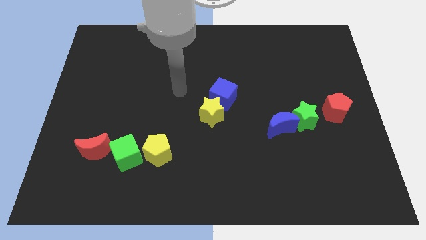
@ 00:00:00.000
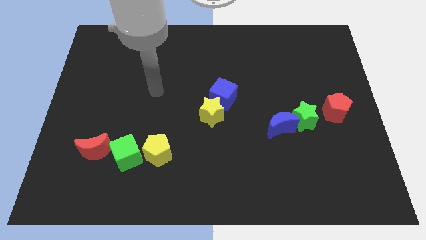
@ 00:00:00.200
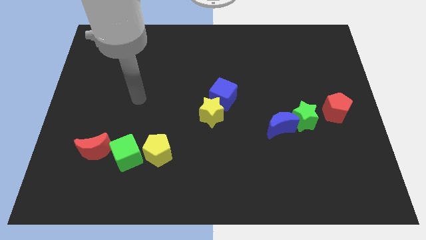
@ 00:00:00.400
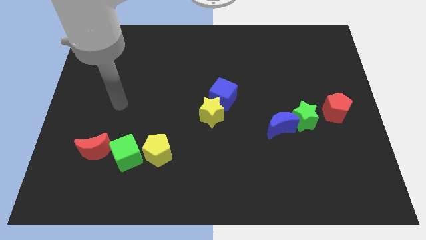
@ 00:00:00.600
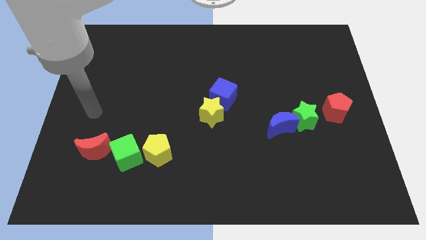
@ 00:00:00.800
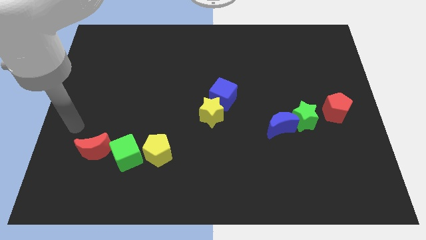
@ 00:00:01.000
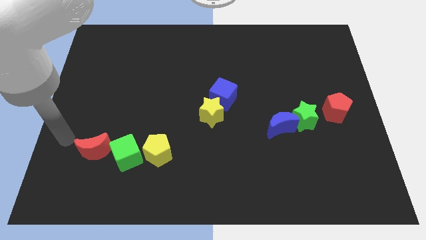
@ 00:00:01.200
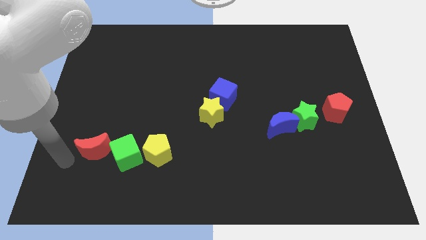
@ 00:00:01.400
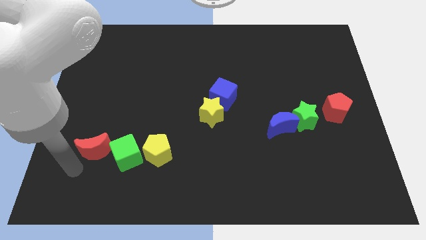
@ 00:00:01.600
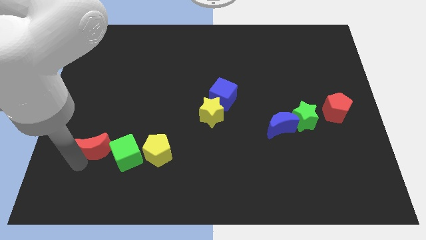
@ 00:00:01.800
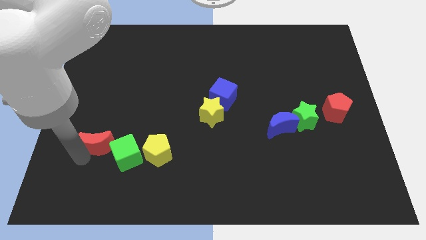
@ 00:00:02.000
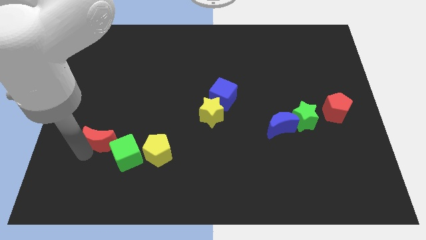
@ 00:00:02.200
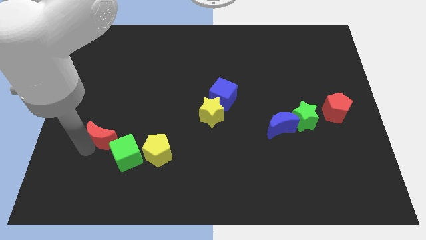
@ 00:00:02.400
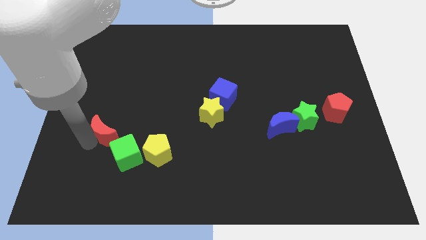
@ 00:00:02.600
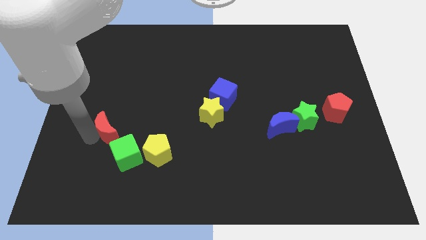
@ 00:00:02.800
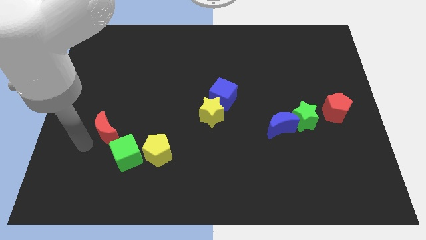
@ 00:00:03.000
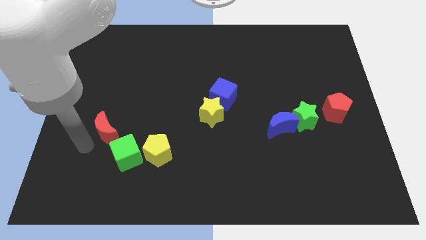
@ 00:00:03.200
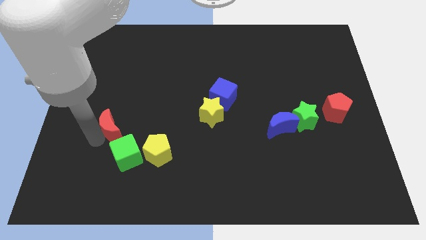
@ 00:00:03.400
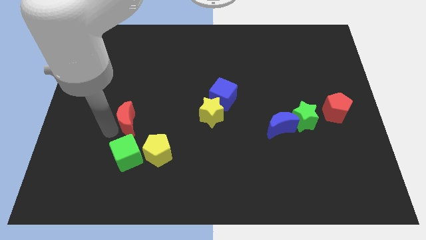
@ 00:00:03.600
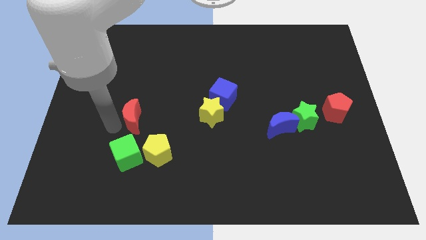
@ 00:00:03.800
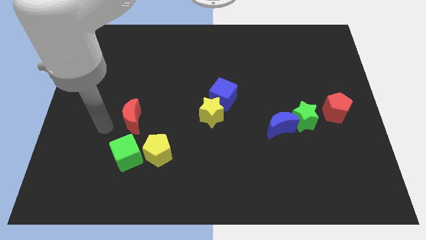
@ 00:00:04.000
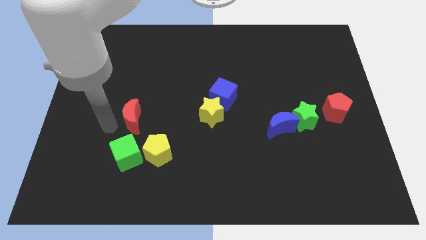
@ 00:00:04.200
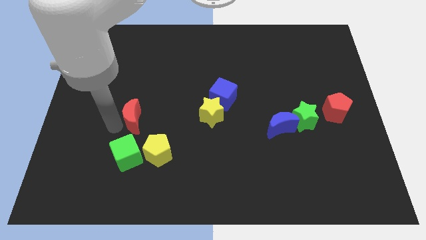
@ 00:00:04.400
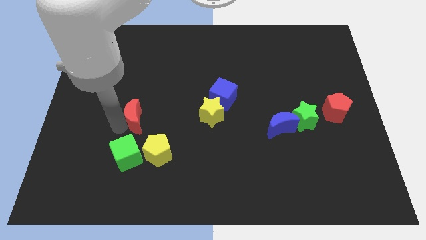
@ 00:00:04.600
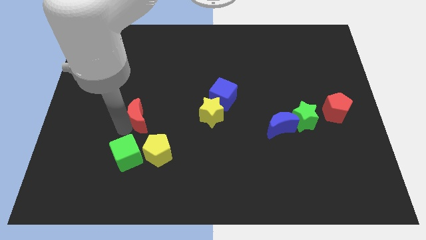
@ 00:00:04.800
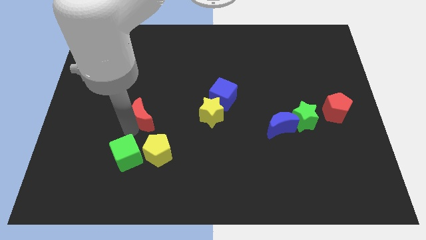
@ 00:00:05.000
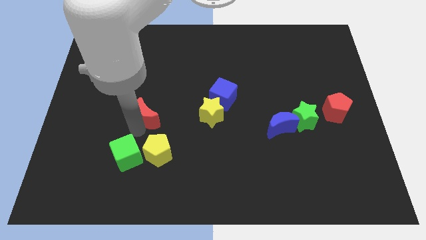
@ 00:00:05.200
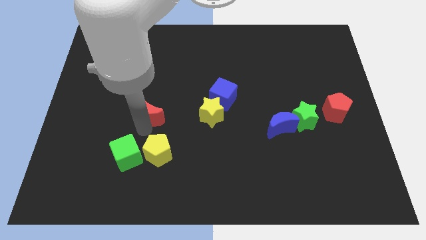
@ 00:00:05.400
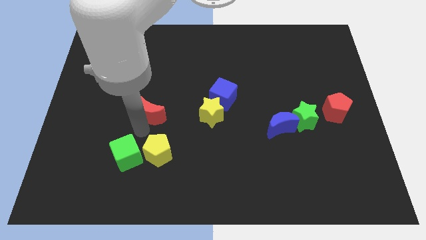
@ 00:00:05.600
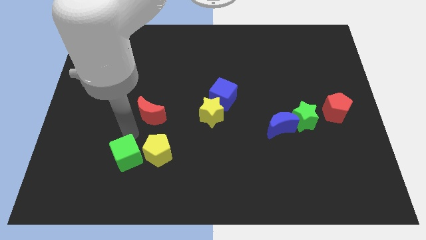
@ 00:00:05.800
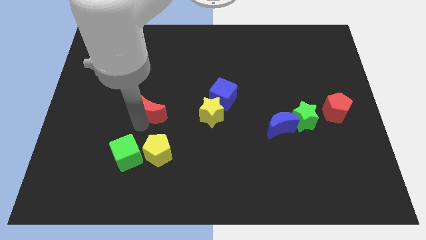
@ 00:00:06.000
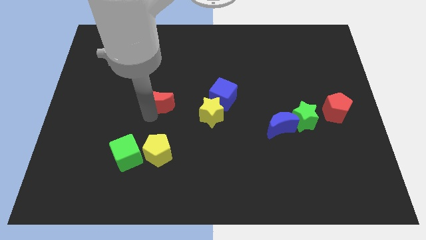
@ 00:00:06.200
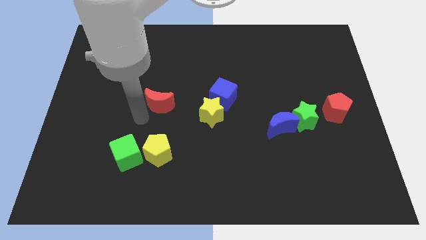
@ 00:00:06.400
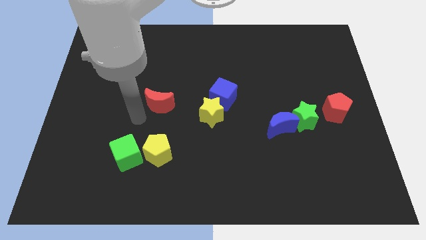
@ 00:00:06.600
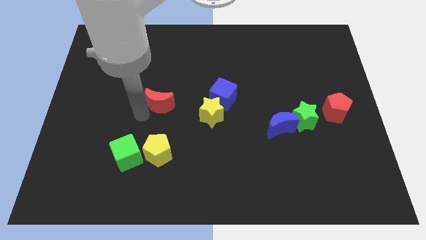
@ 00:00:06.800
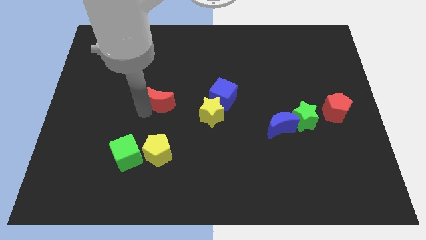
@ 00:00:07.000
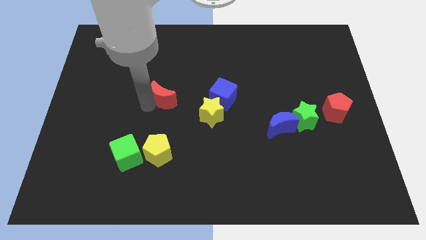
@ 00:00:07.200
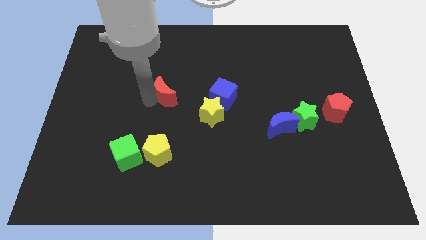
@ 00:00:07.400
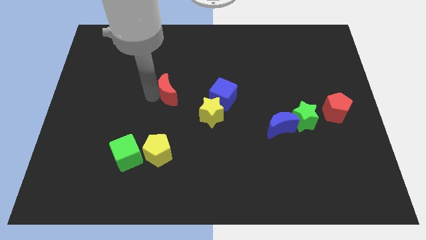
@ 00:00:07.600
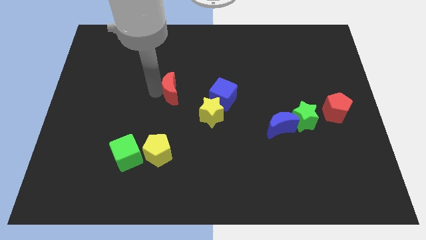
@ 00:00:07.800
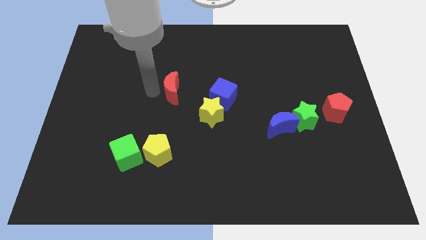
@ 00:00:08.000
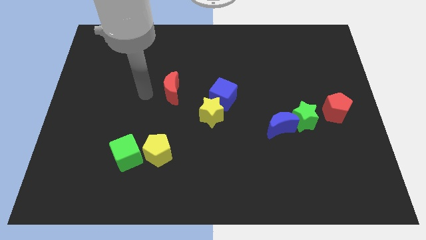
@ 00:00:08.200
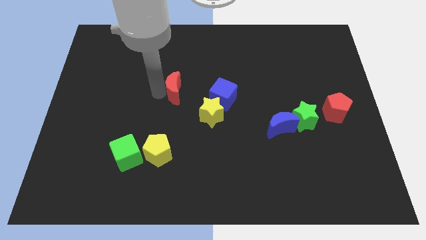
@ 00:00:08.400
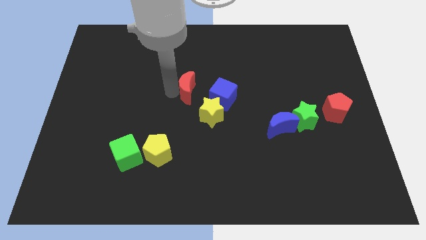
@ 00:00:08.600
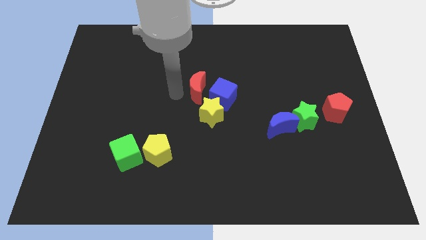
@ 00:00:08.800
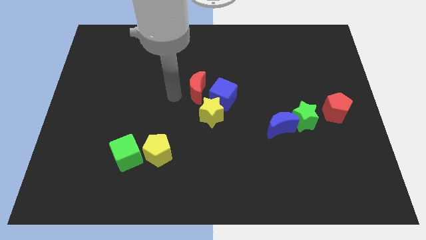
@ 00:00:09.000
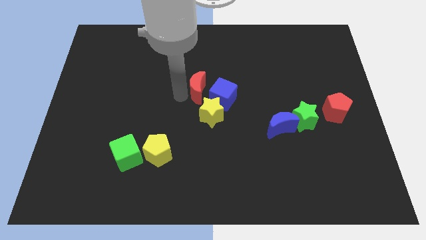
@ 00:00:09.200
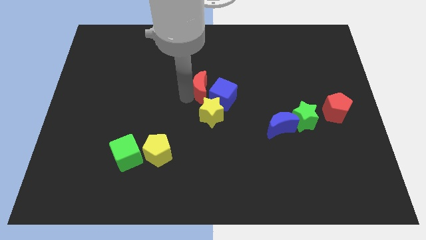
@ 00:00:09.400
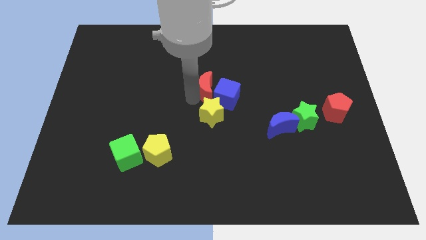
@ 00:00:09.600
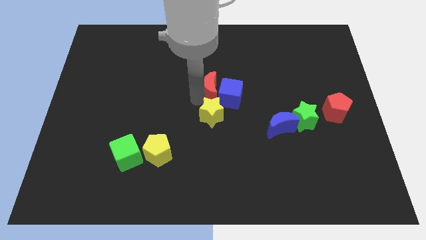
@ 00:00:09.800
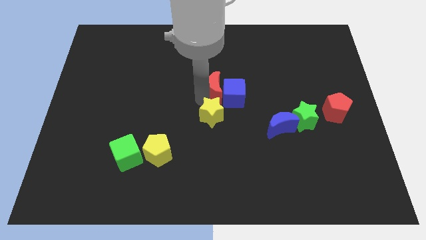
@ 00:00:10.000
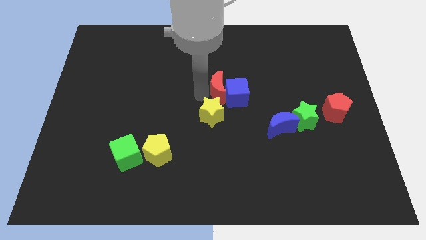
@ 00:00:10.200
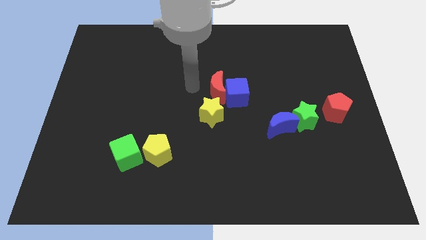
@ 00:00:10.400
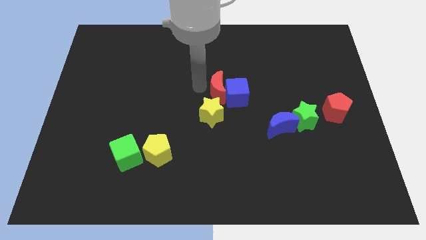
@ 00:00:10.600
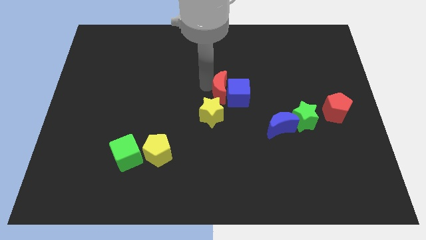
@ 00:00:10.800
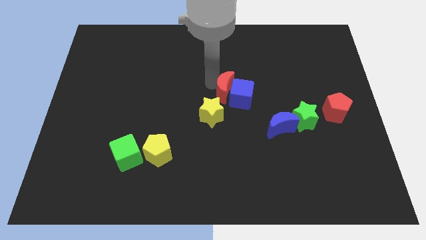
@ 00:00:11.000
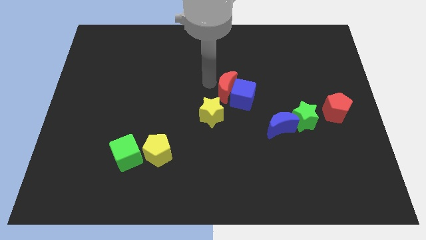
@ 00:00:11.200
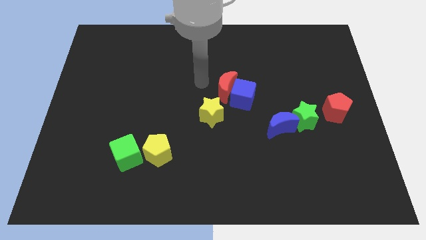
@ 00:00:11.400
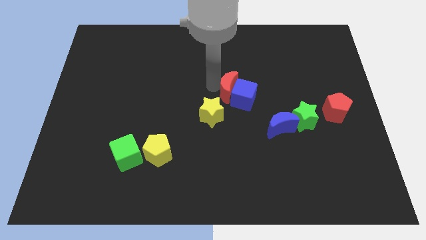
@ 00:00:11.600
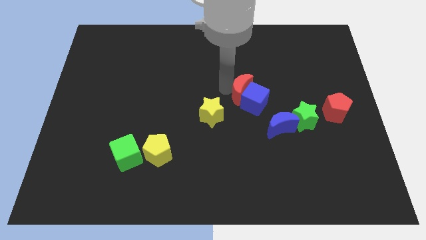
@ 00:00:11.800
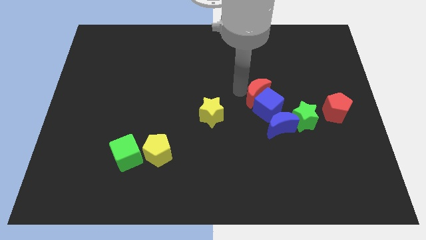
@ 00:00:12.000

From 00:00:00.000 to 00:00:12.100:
push the red moon to the top left side of the green star

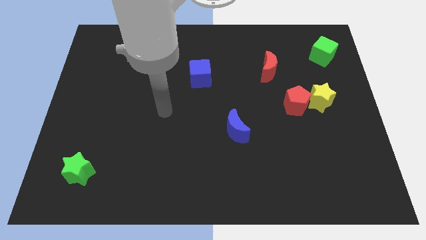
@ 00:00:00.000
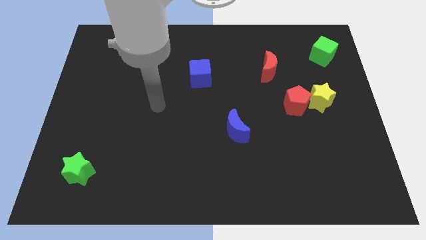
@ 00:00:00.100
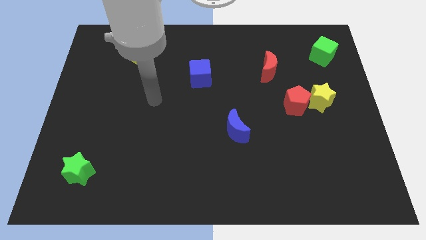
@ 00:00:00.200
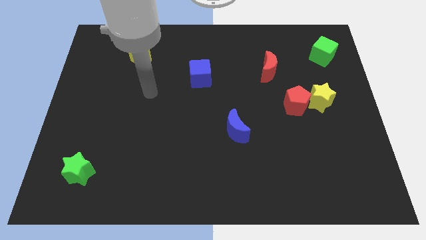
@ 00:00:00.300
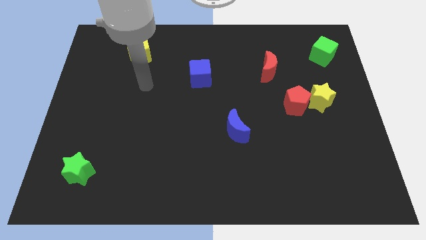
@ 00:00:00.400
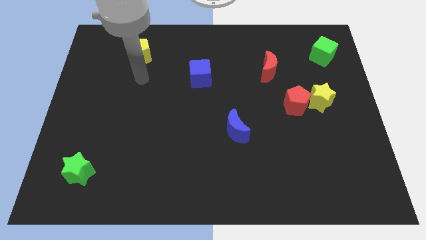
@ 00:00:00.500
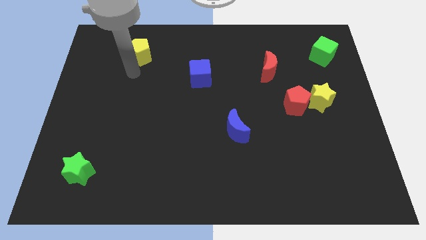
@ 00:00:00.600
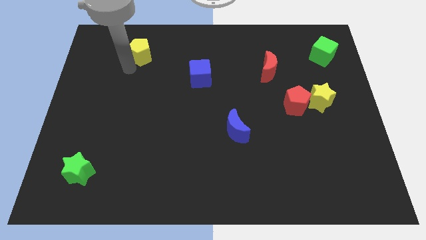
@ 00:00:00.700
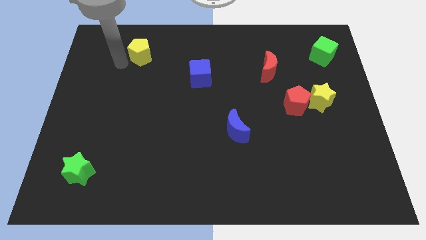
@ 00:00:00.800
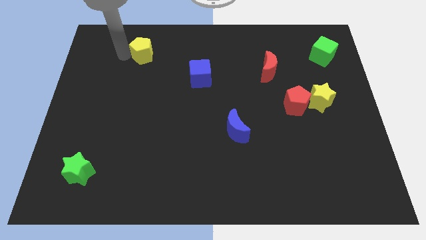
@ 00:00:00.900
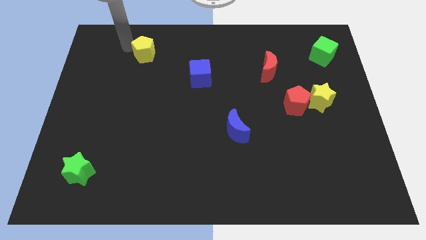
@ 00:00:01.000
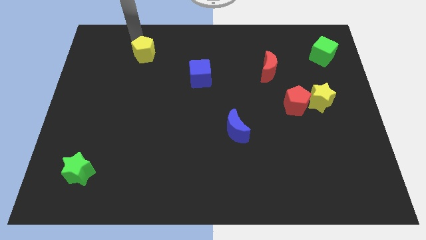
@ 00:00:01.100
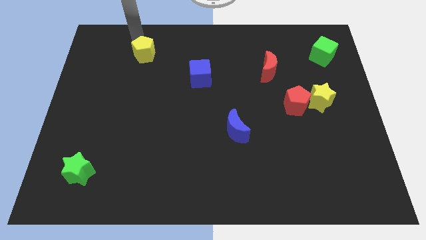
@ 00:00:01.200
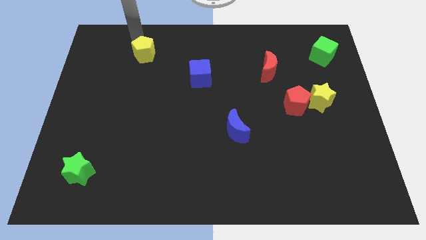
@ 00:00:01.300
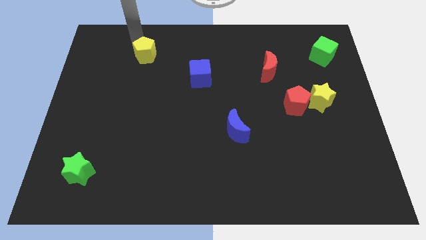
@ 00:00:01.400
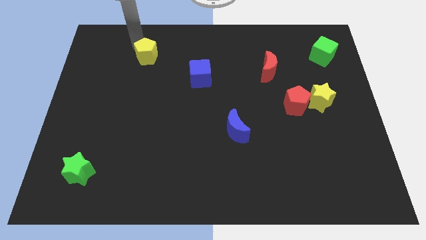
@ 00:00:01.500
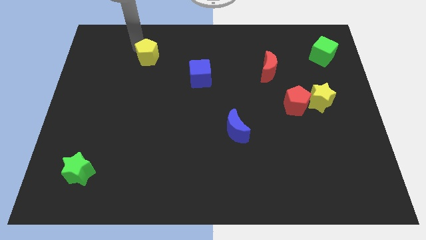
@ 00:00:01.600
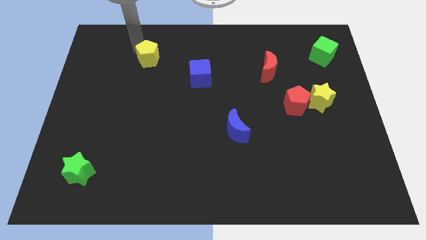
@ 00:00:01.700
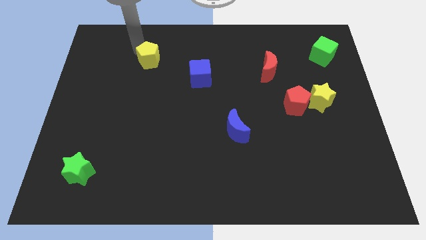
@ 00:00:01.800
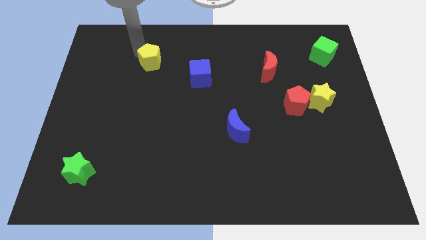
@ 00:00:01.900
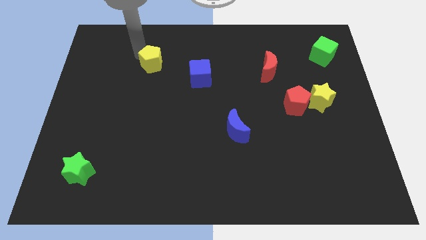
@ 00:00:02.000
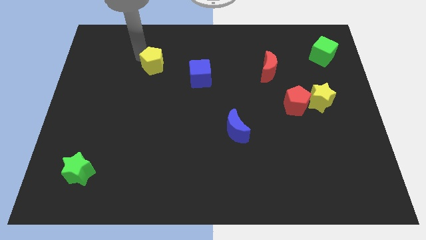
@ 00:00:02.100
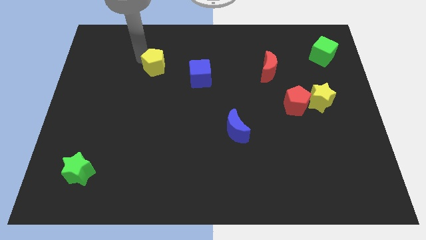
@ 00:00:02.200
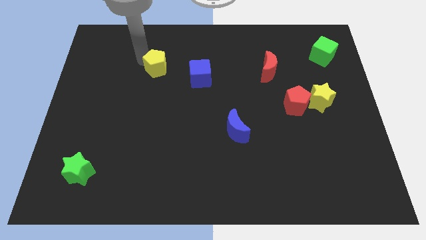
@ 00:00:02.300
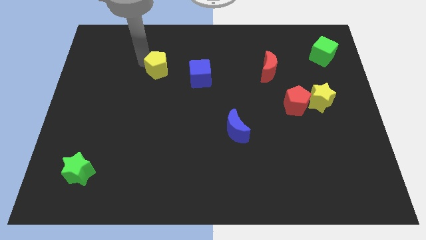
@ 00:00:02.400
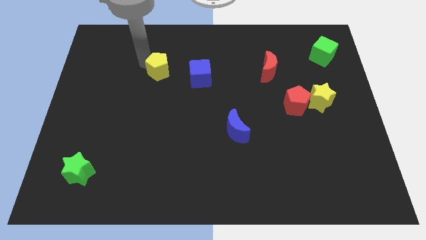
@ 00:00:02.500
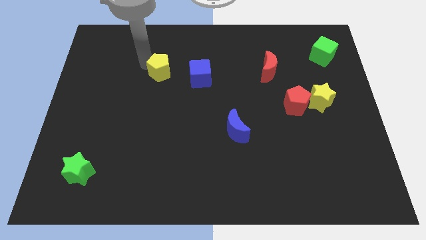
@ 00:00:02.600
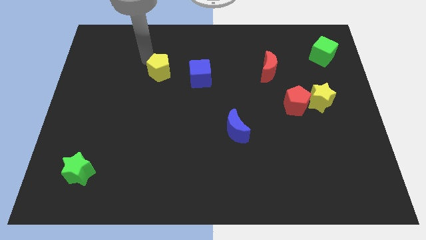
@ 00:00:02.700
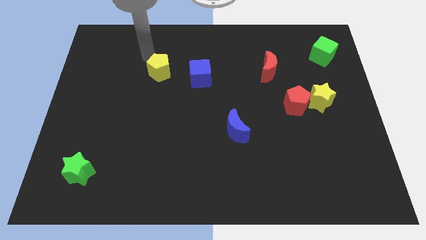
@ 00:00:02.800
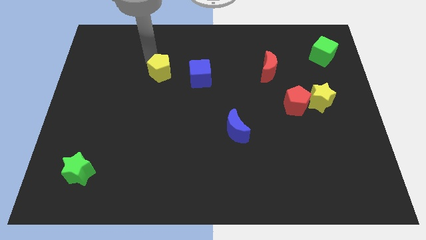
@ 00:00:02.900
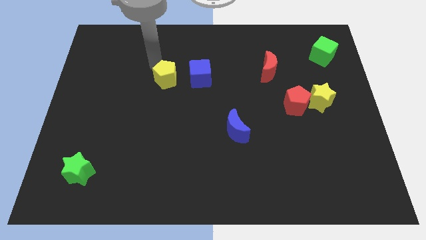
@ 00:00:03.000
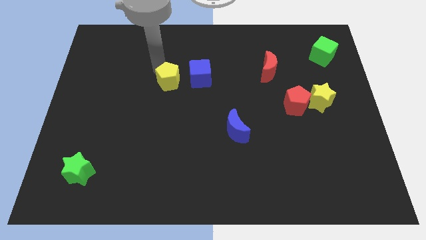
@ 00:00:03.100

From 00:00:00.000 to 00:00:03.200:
move the yellow pentagon diagonally down and to the left of the blue cube
